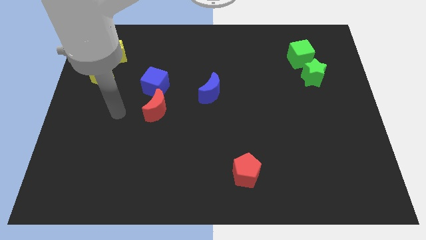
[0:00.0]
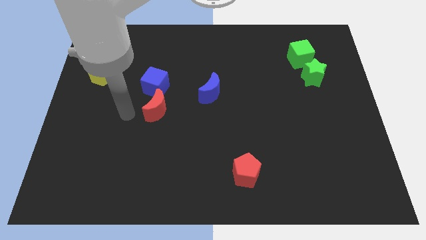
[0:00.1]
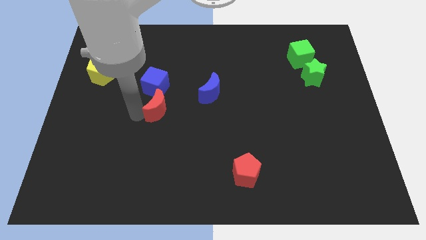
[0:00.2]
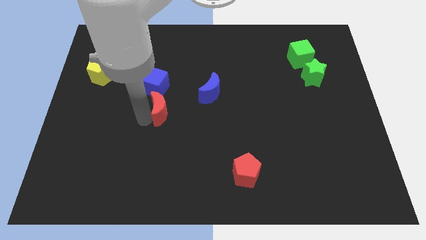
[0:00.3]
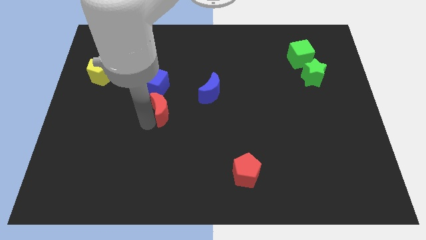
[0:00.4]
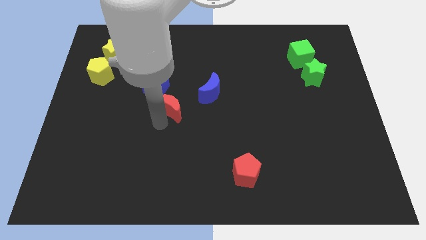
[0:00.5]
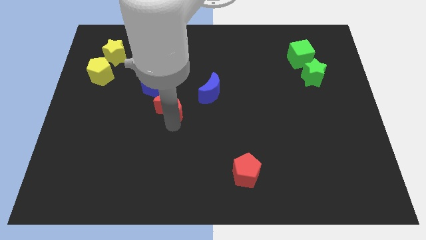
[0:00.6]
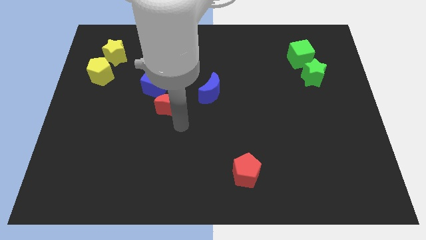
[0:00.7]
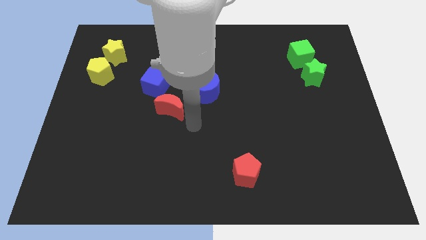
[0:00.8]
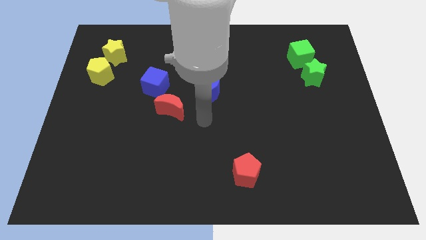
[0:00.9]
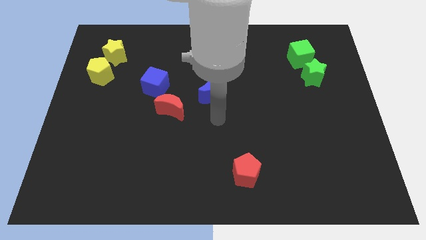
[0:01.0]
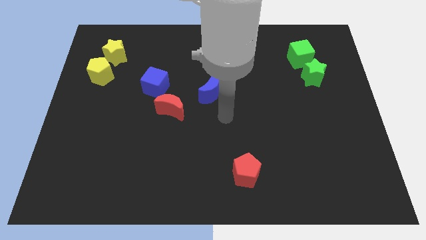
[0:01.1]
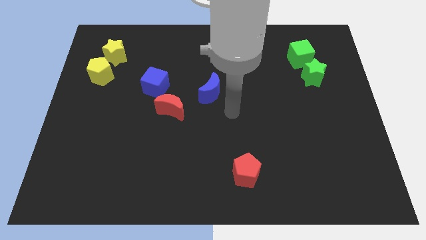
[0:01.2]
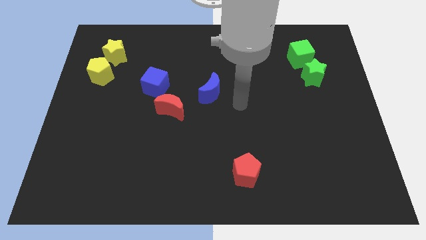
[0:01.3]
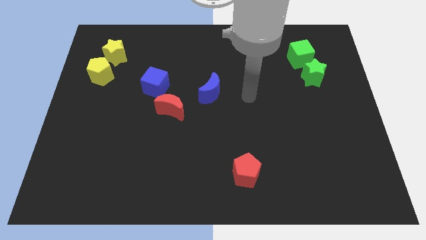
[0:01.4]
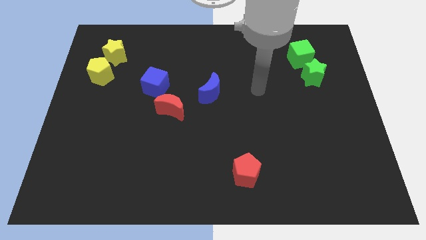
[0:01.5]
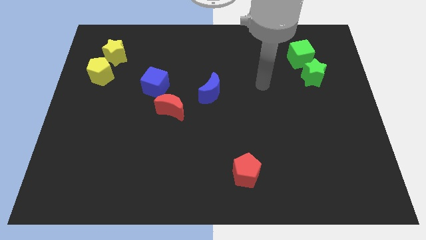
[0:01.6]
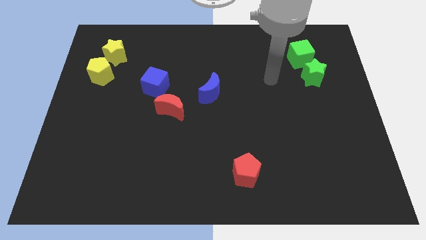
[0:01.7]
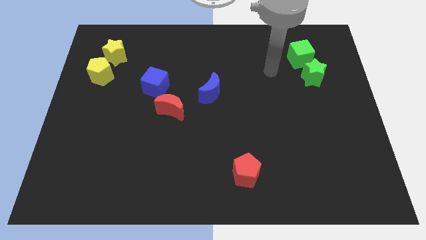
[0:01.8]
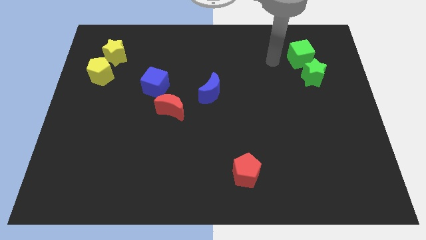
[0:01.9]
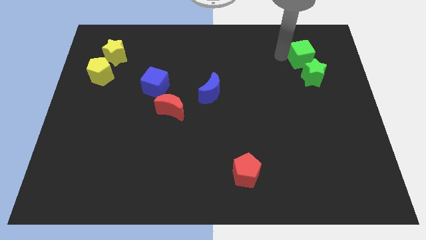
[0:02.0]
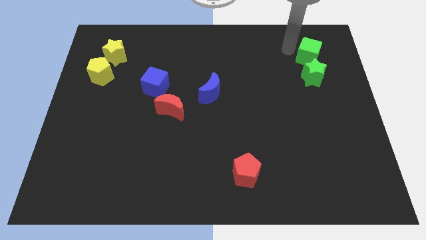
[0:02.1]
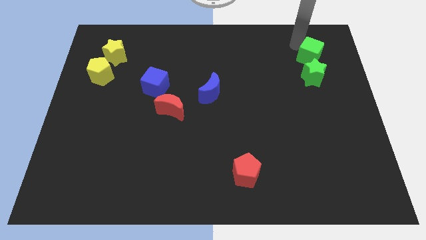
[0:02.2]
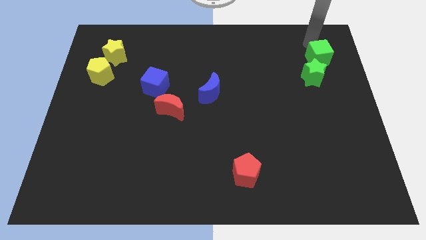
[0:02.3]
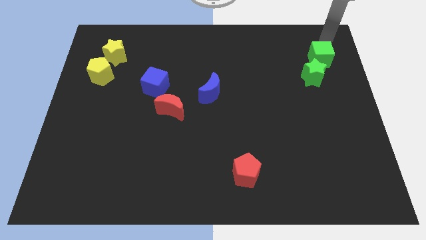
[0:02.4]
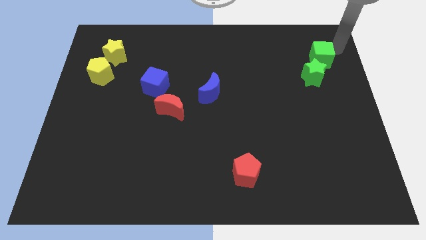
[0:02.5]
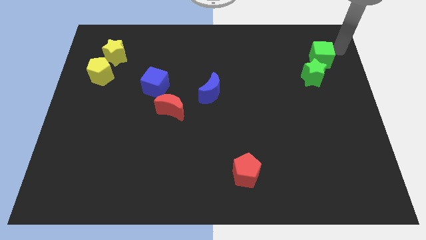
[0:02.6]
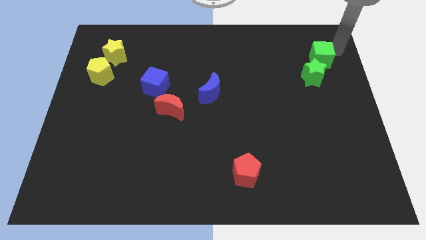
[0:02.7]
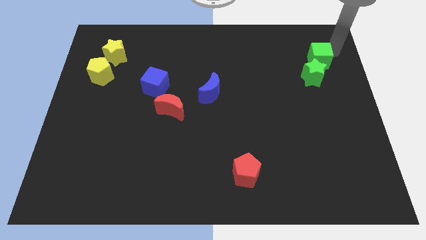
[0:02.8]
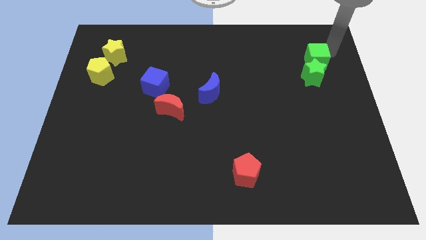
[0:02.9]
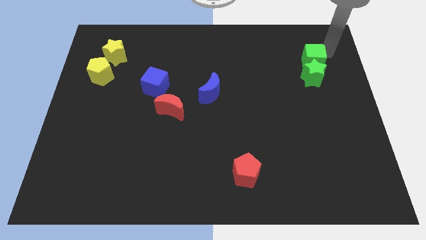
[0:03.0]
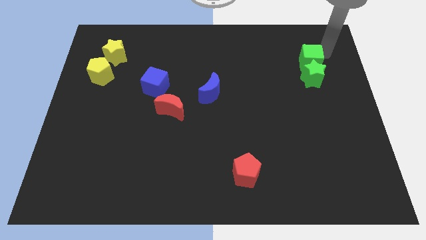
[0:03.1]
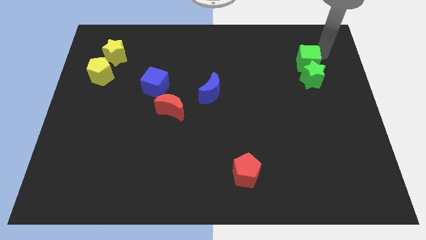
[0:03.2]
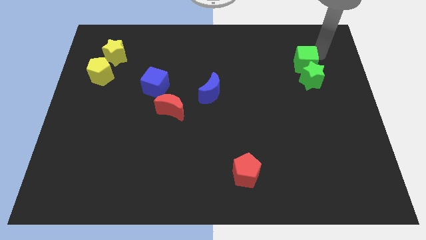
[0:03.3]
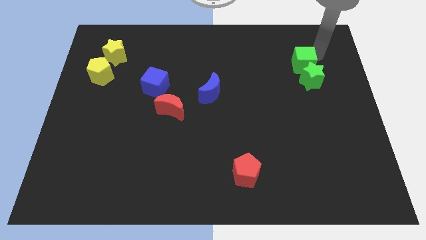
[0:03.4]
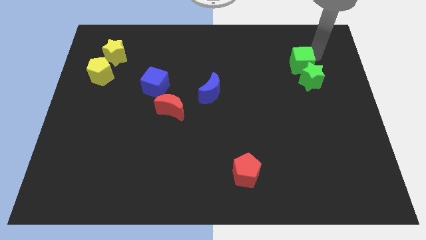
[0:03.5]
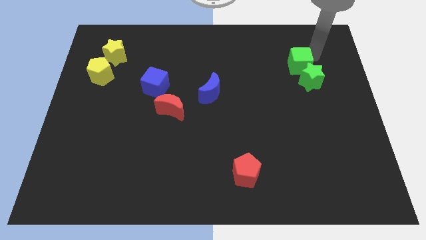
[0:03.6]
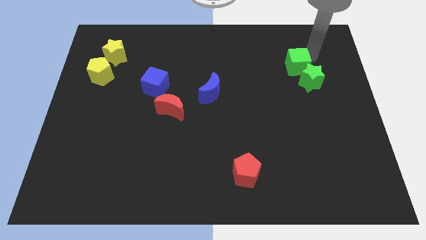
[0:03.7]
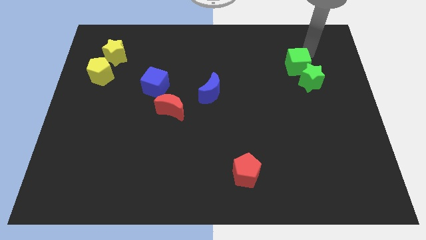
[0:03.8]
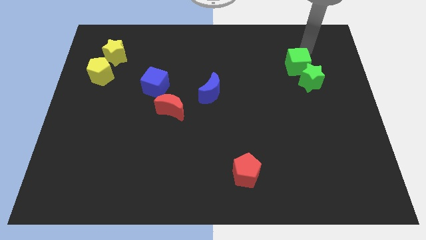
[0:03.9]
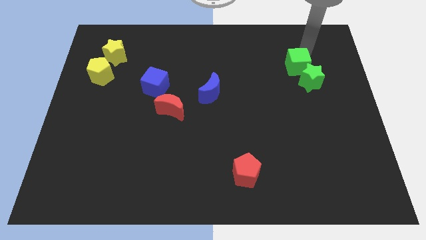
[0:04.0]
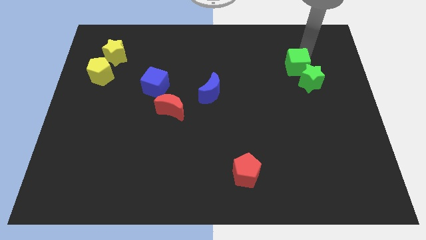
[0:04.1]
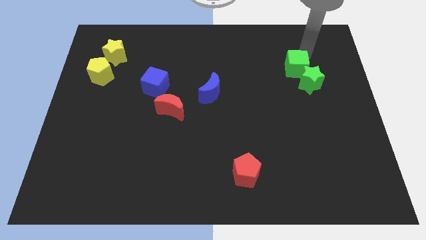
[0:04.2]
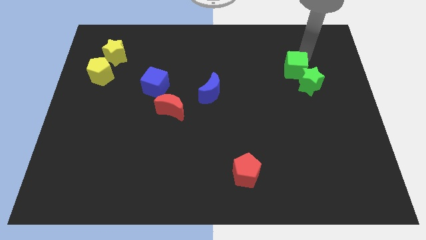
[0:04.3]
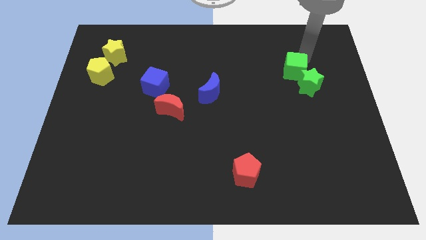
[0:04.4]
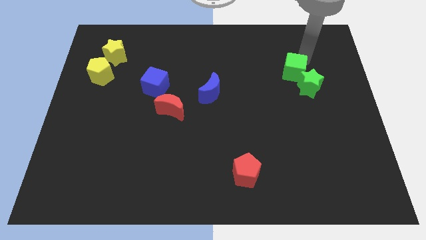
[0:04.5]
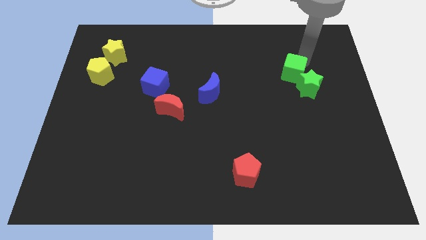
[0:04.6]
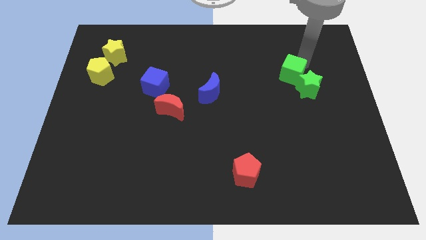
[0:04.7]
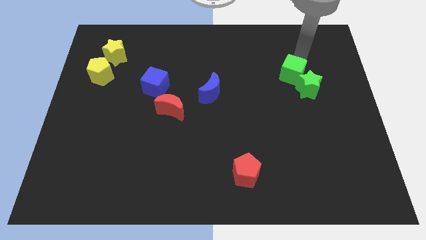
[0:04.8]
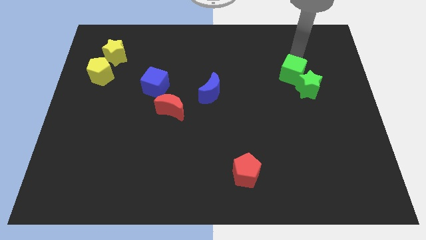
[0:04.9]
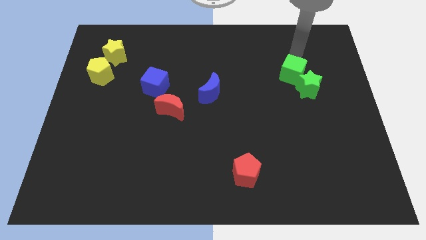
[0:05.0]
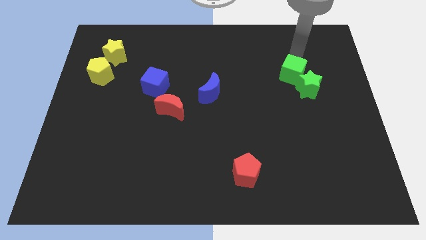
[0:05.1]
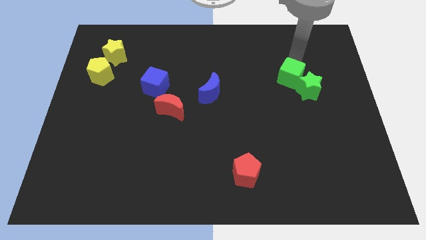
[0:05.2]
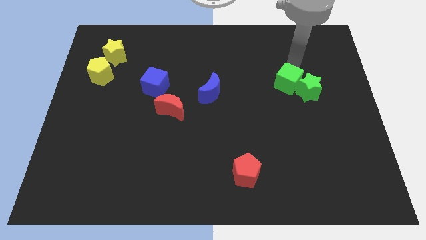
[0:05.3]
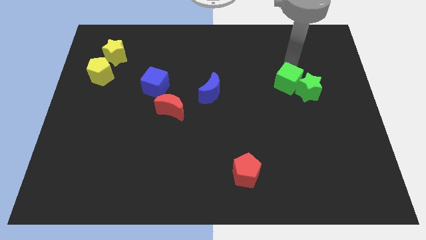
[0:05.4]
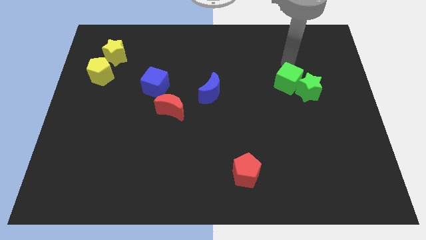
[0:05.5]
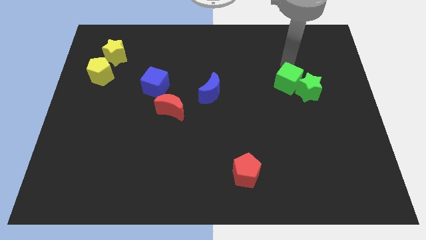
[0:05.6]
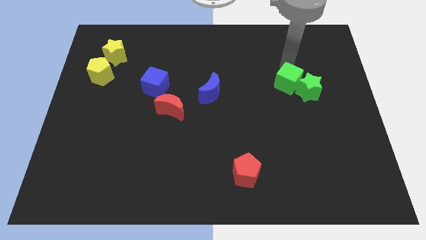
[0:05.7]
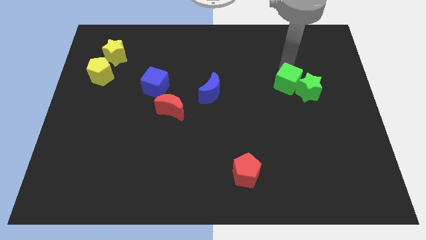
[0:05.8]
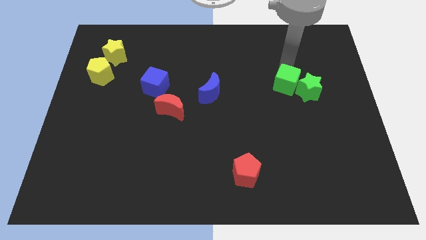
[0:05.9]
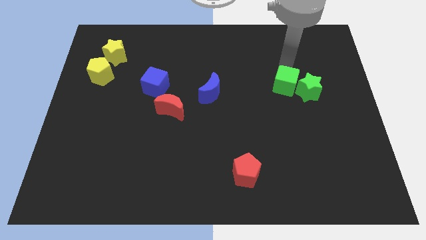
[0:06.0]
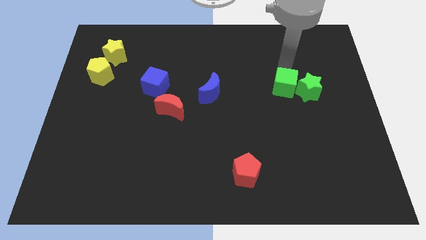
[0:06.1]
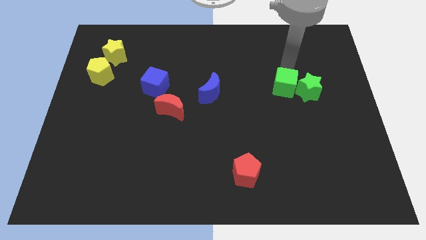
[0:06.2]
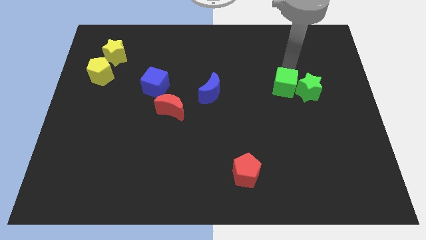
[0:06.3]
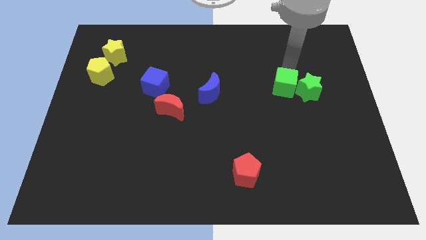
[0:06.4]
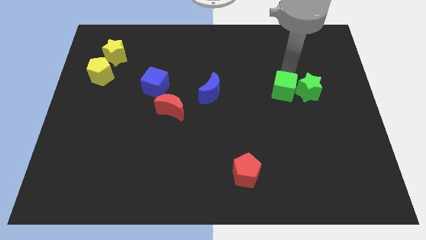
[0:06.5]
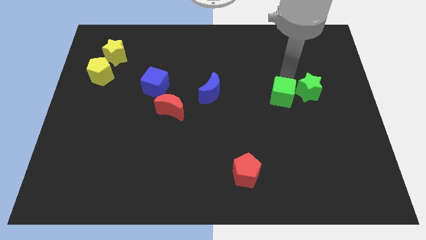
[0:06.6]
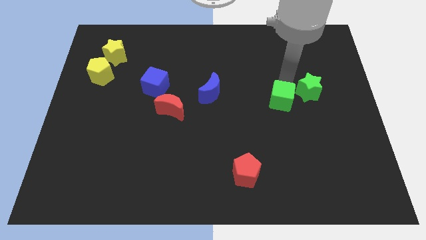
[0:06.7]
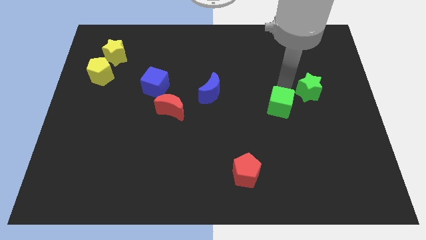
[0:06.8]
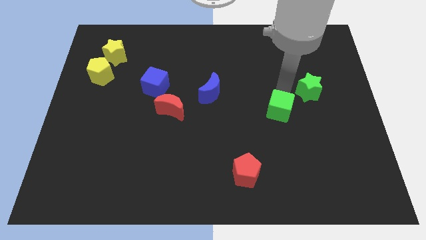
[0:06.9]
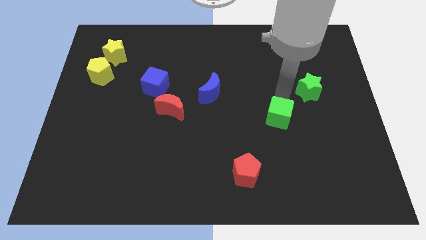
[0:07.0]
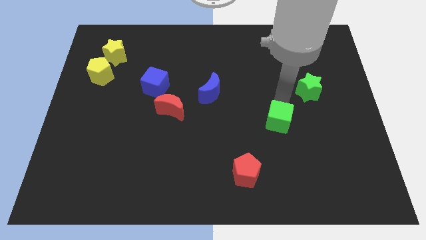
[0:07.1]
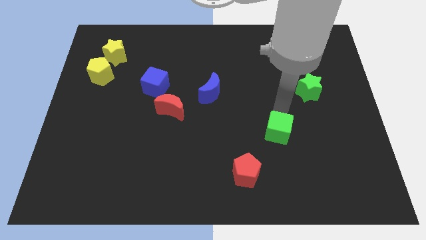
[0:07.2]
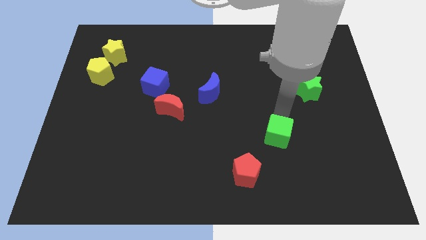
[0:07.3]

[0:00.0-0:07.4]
slide the green cube to the top right side of the red pentagon

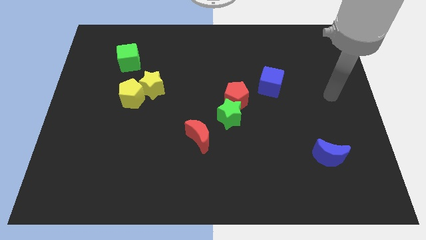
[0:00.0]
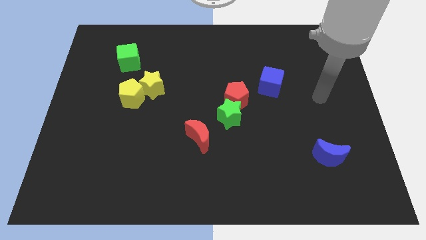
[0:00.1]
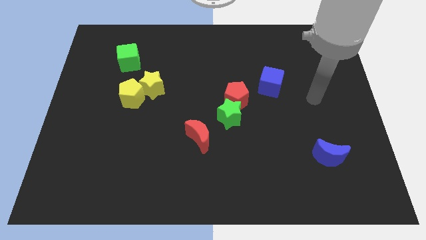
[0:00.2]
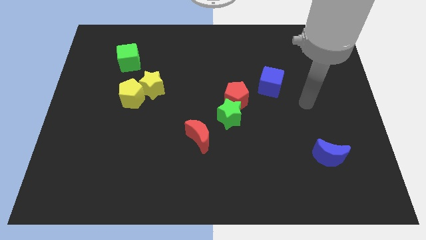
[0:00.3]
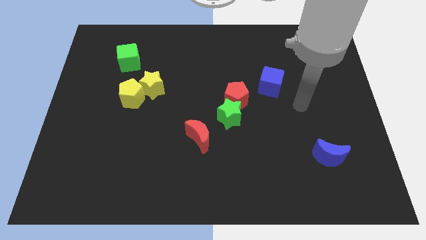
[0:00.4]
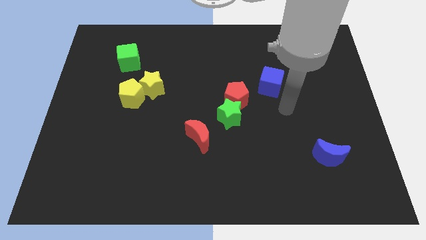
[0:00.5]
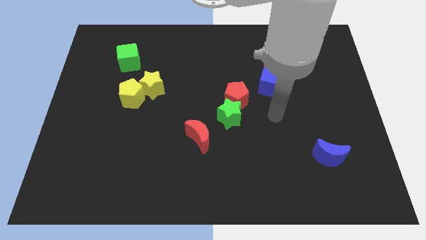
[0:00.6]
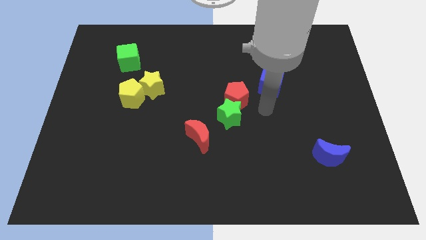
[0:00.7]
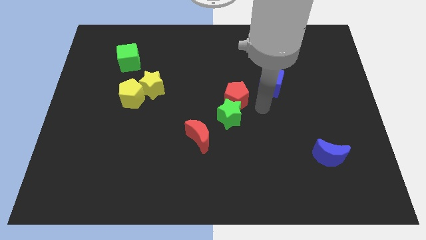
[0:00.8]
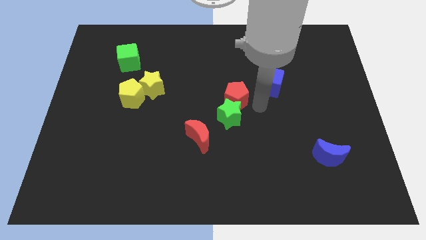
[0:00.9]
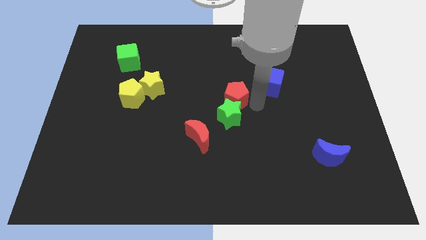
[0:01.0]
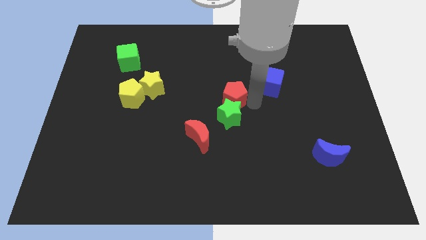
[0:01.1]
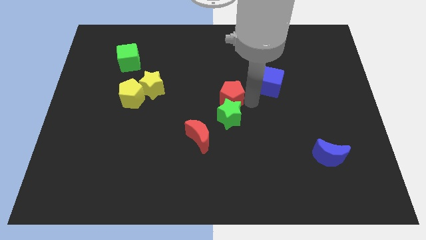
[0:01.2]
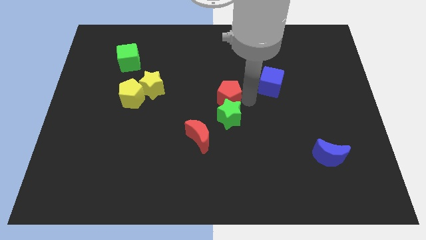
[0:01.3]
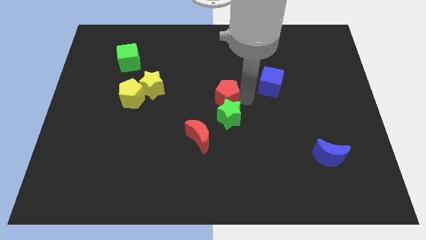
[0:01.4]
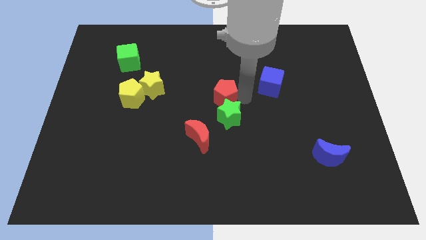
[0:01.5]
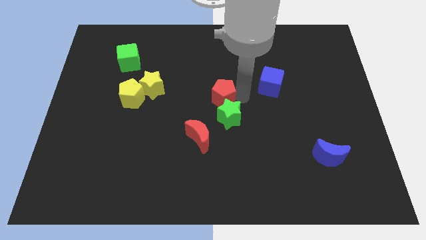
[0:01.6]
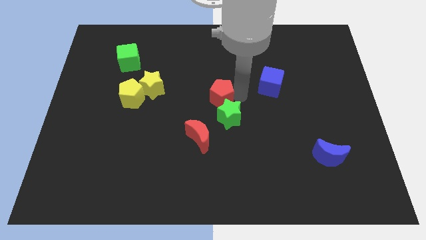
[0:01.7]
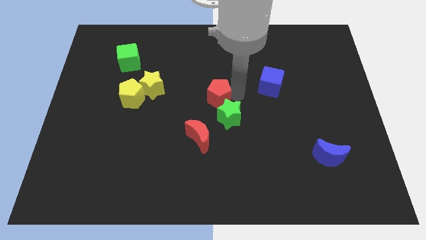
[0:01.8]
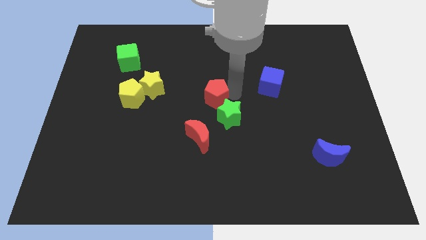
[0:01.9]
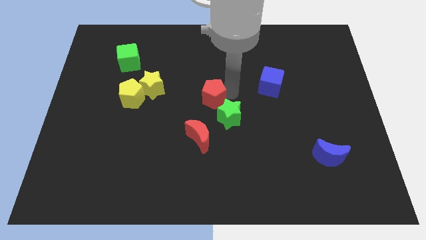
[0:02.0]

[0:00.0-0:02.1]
move the red pentagon to the right side of the yellow star
